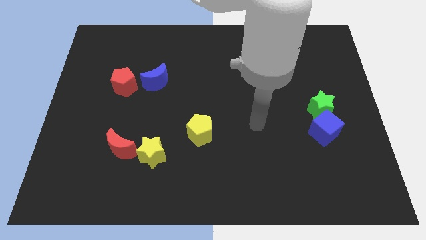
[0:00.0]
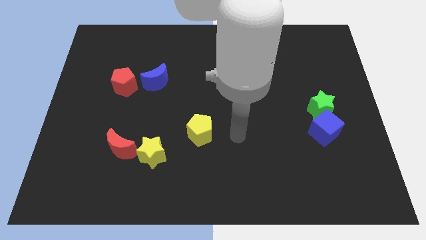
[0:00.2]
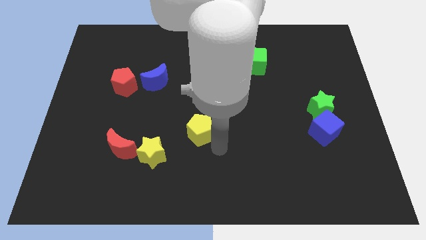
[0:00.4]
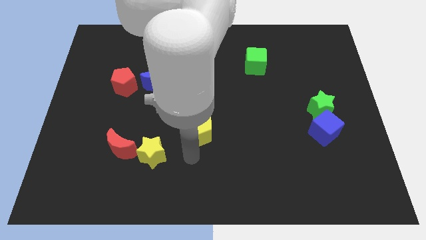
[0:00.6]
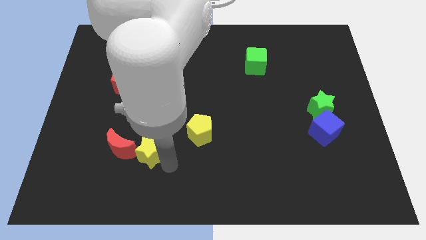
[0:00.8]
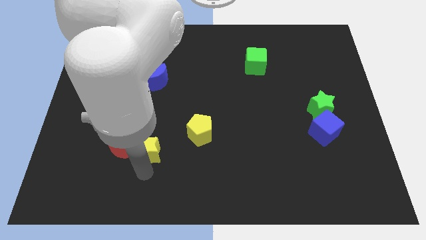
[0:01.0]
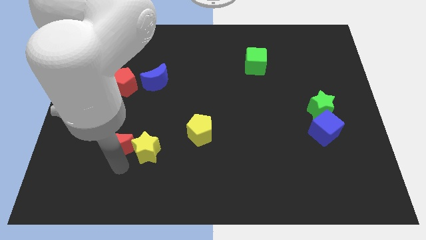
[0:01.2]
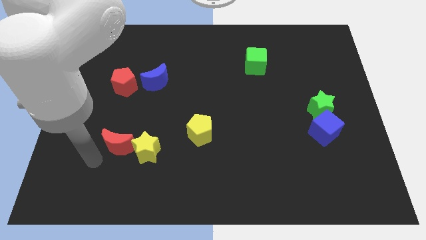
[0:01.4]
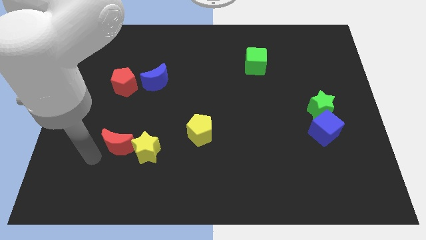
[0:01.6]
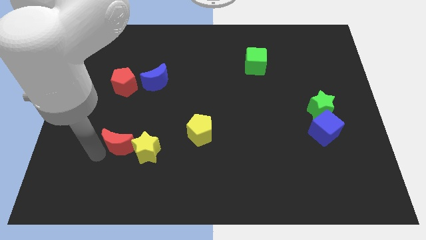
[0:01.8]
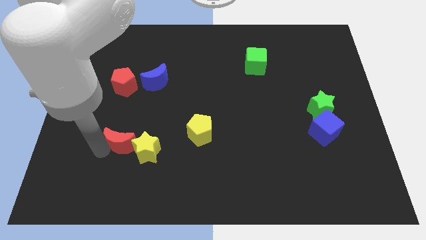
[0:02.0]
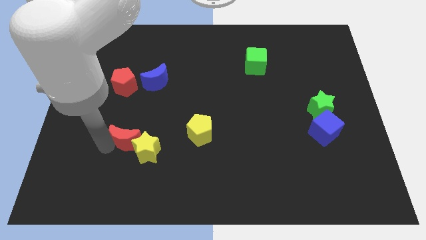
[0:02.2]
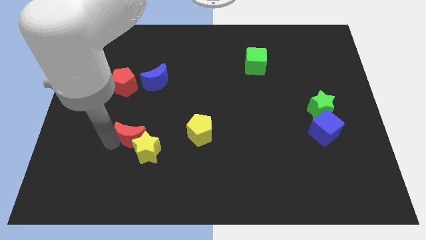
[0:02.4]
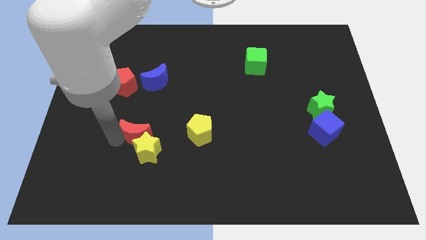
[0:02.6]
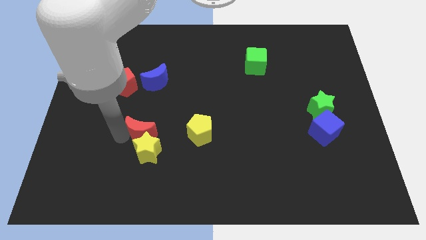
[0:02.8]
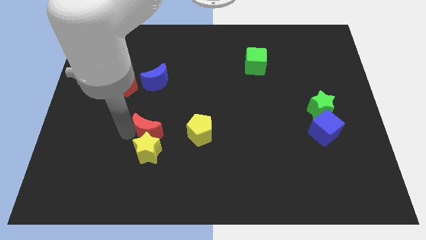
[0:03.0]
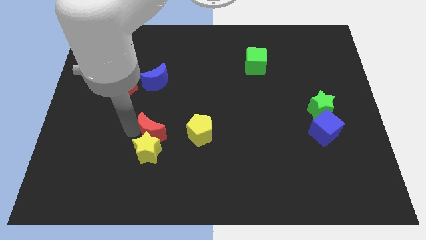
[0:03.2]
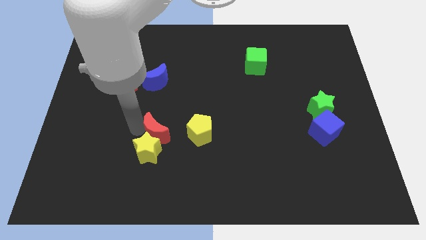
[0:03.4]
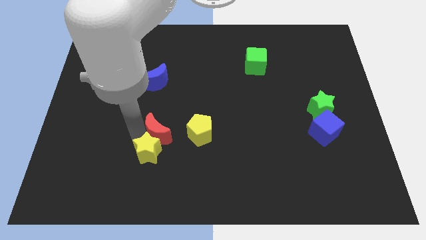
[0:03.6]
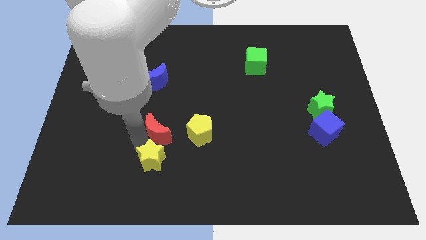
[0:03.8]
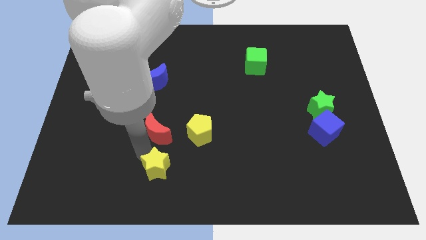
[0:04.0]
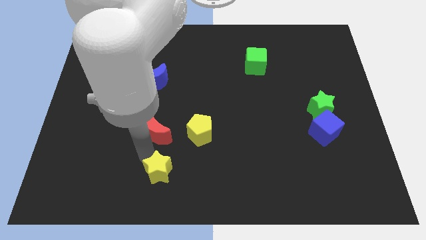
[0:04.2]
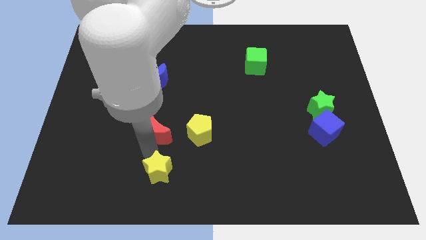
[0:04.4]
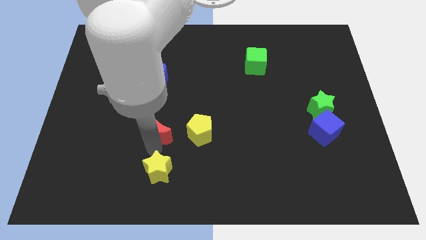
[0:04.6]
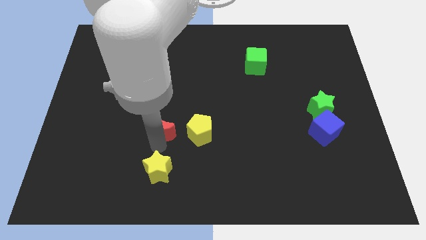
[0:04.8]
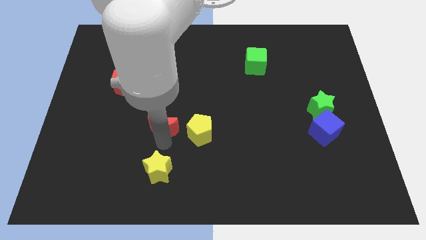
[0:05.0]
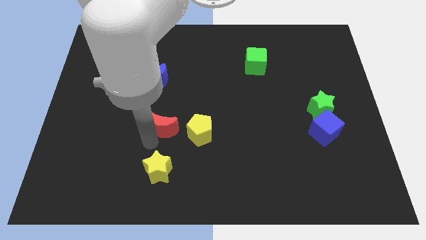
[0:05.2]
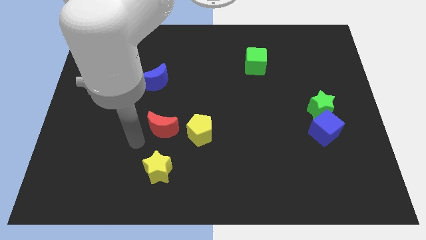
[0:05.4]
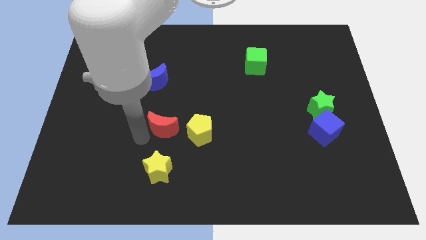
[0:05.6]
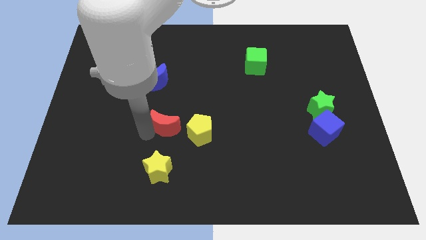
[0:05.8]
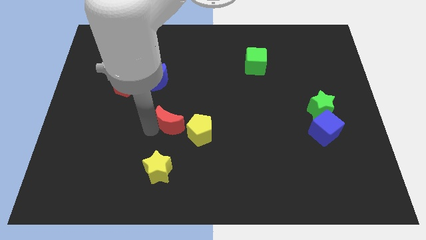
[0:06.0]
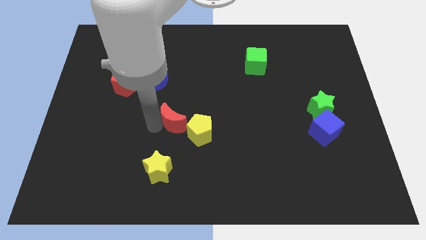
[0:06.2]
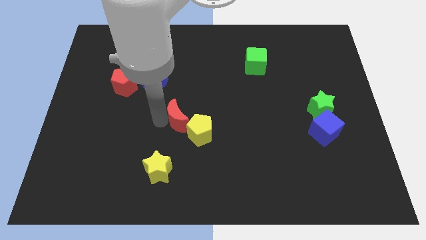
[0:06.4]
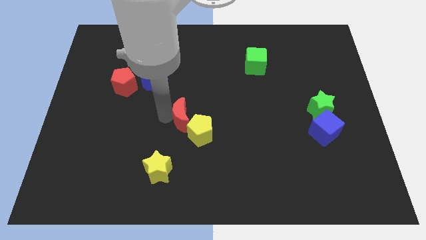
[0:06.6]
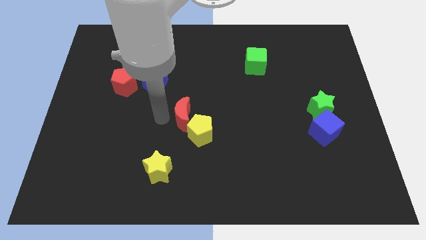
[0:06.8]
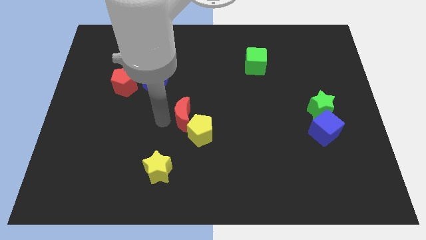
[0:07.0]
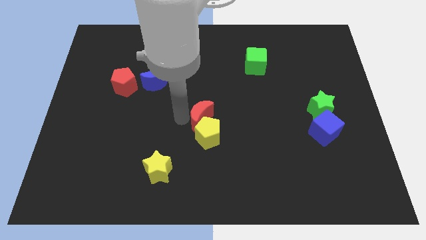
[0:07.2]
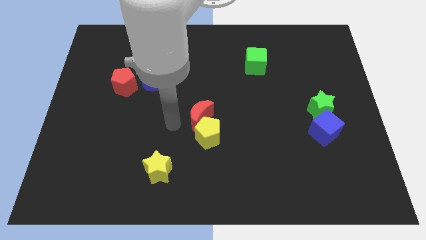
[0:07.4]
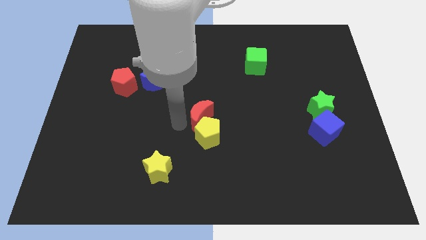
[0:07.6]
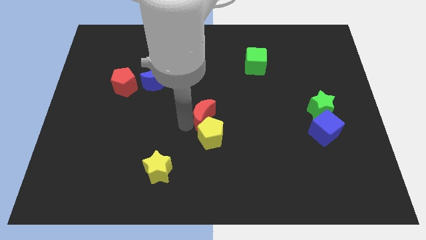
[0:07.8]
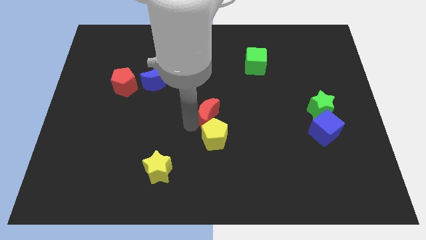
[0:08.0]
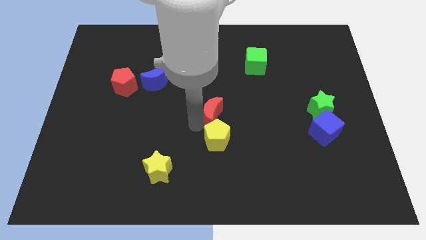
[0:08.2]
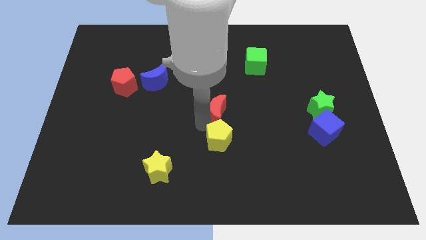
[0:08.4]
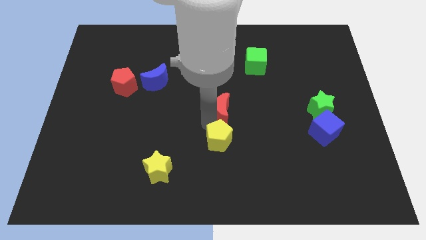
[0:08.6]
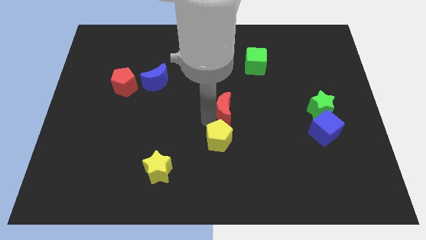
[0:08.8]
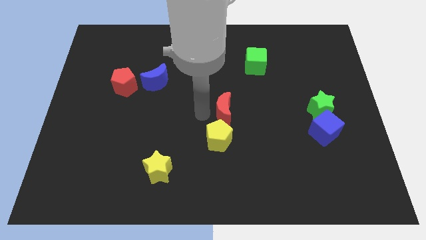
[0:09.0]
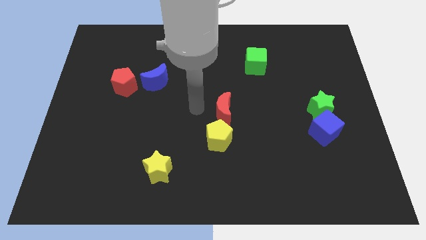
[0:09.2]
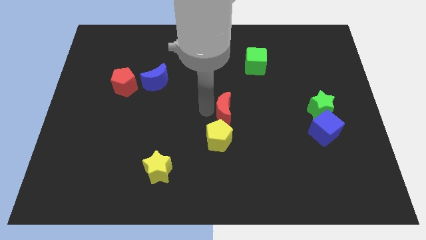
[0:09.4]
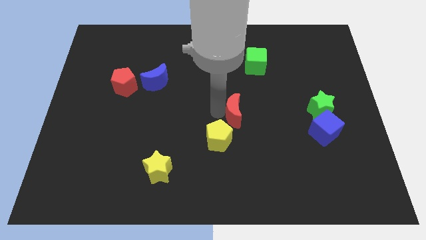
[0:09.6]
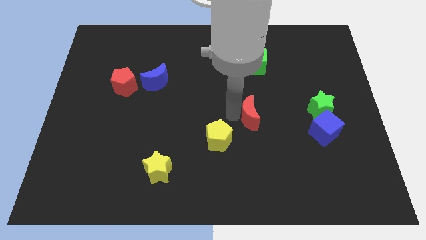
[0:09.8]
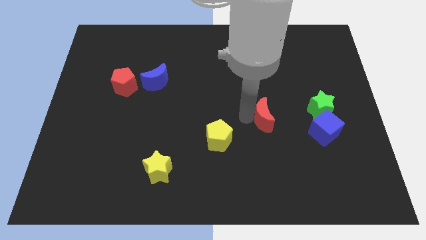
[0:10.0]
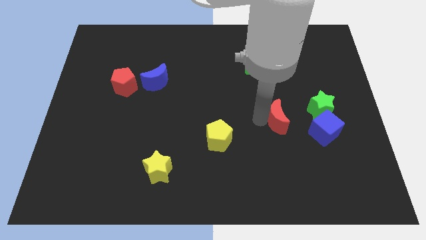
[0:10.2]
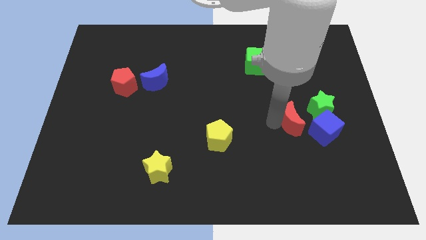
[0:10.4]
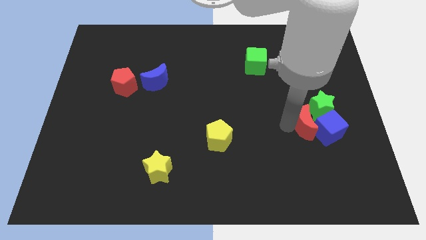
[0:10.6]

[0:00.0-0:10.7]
move the red moon next to the green star

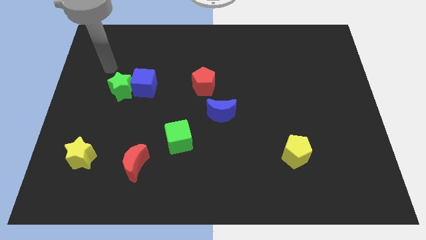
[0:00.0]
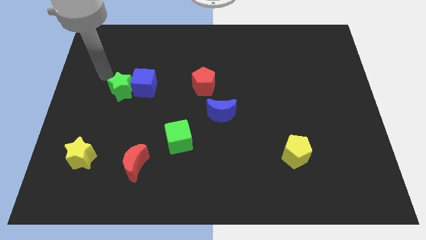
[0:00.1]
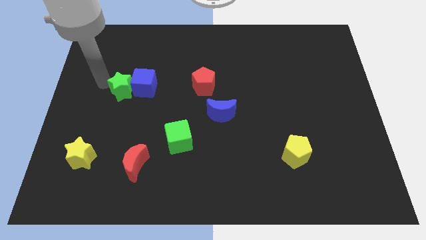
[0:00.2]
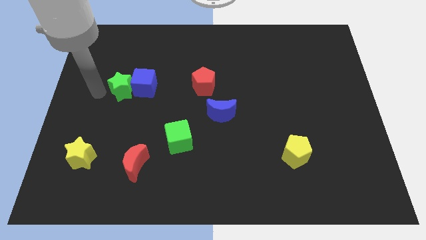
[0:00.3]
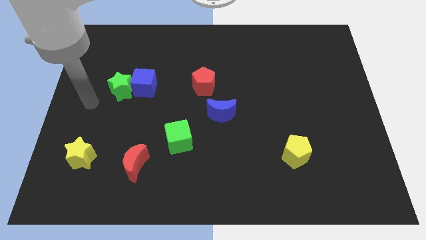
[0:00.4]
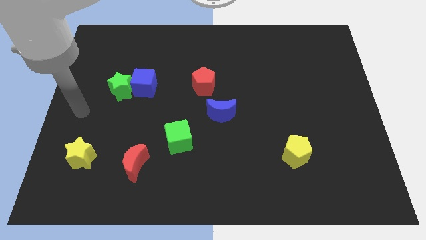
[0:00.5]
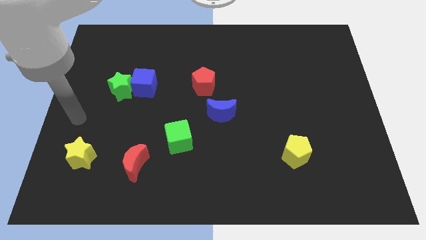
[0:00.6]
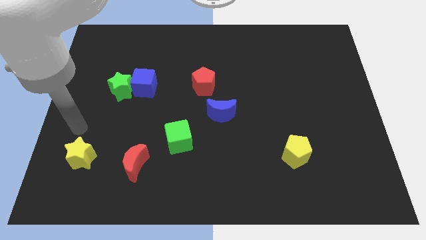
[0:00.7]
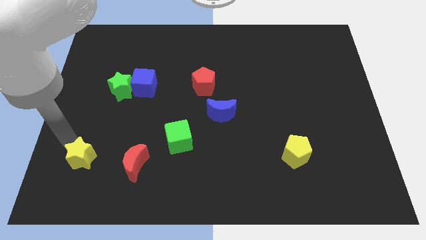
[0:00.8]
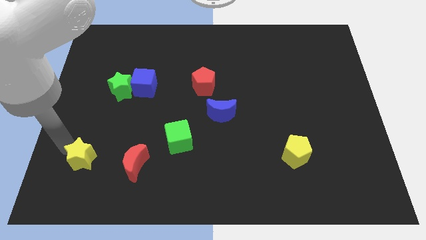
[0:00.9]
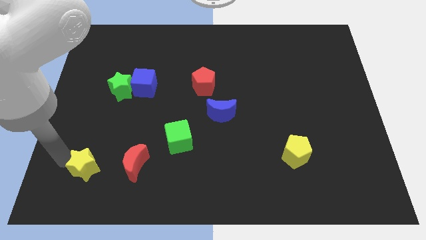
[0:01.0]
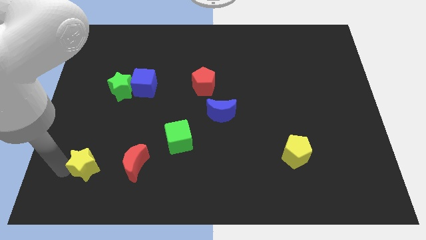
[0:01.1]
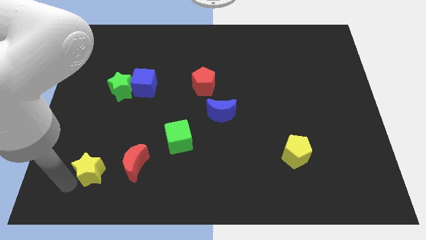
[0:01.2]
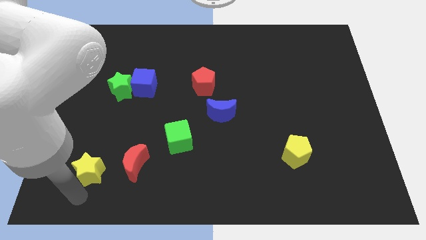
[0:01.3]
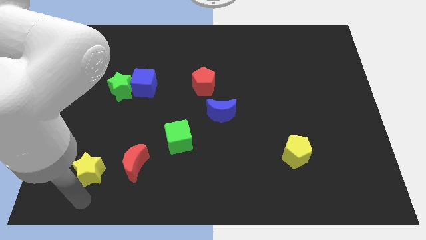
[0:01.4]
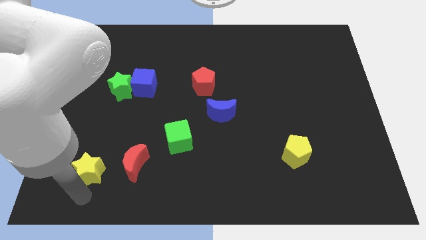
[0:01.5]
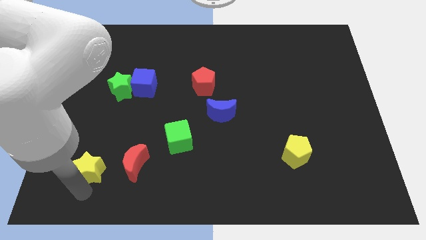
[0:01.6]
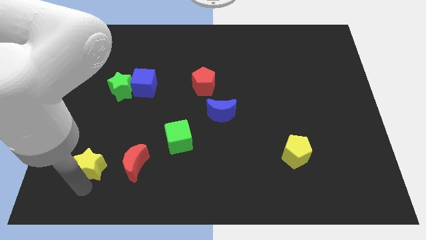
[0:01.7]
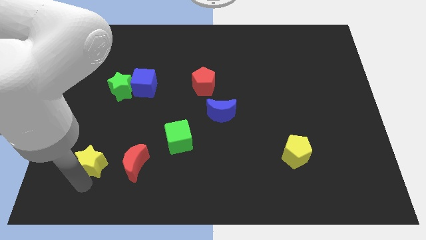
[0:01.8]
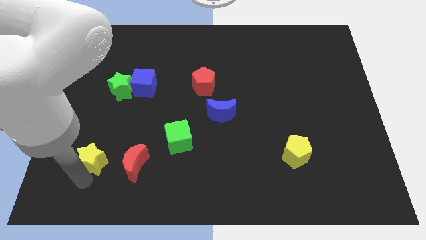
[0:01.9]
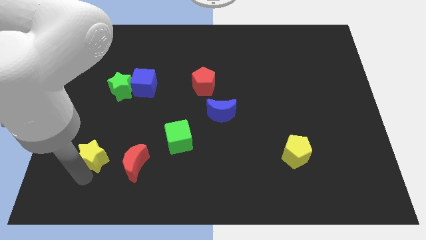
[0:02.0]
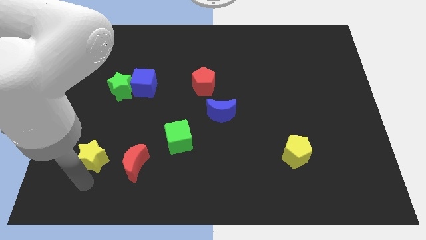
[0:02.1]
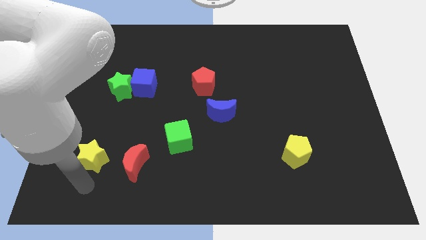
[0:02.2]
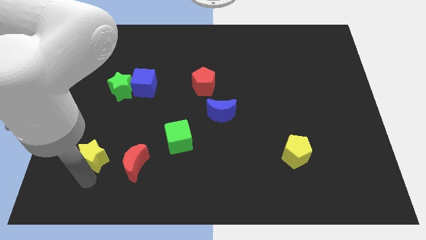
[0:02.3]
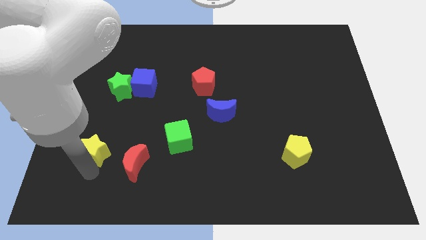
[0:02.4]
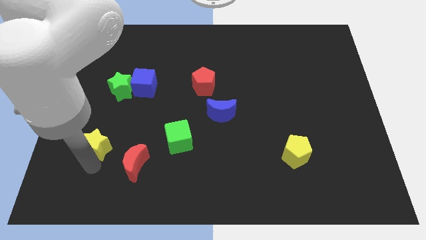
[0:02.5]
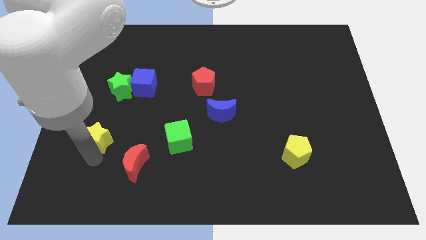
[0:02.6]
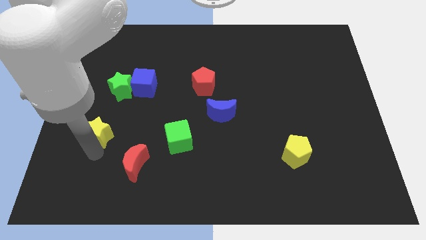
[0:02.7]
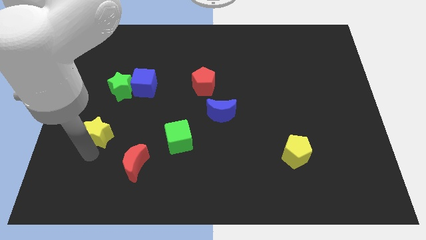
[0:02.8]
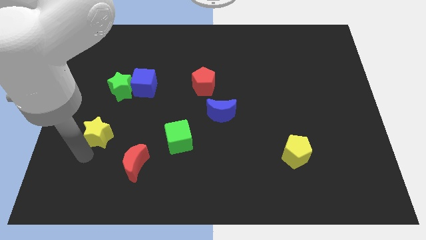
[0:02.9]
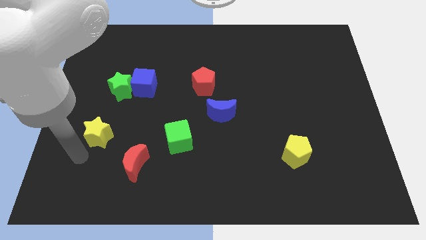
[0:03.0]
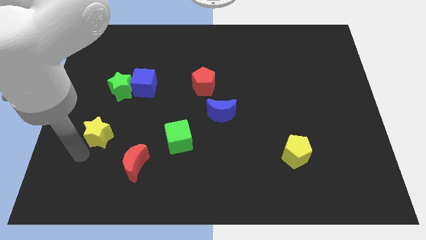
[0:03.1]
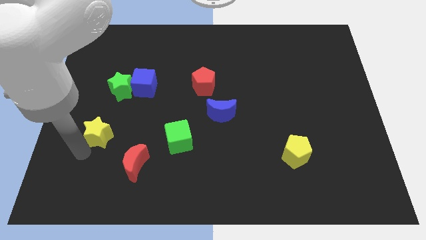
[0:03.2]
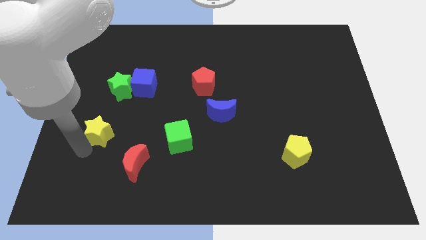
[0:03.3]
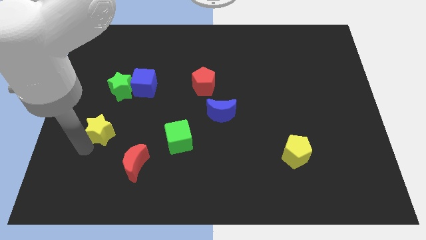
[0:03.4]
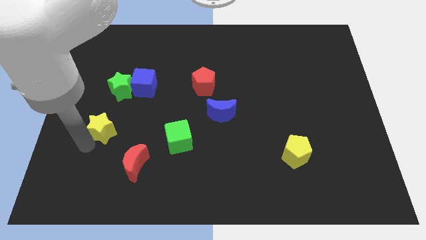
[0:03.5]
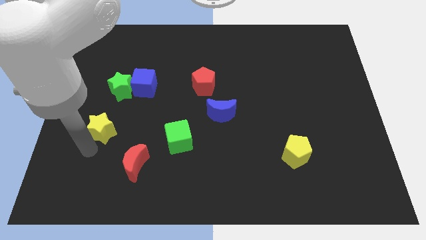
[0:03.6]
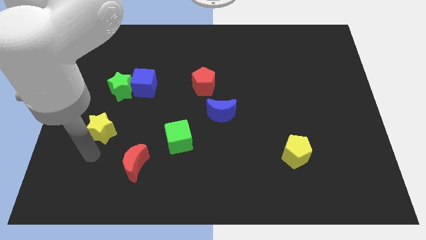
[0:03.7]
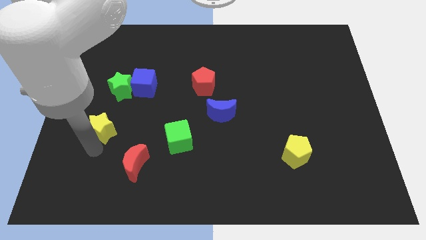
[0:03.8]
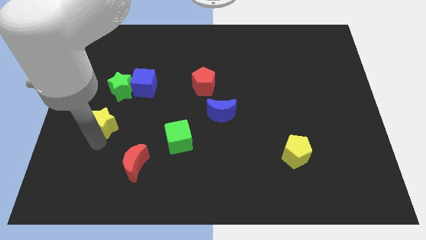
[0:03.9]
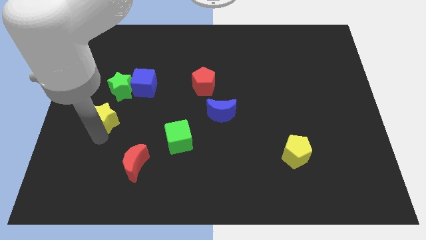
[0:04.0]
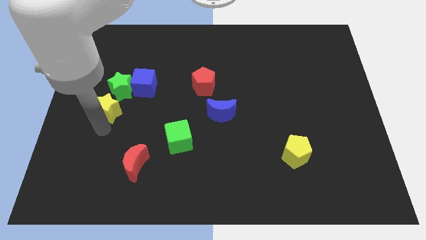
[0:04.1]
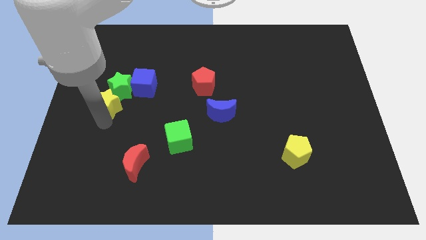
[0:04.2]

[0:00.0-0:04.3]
push the yellow star close to the green star
